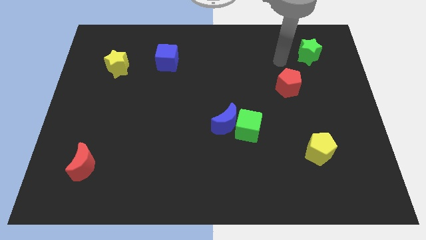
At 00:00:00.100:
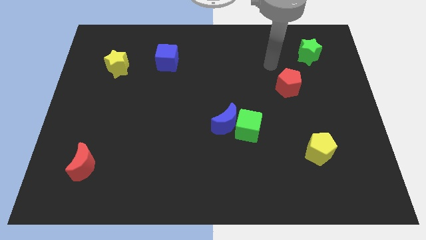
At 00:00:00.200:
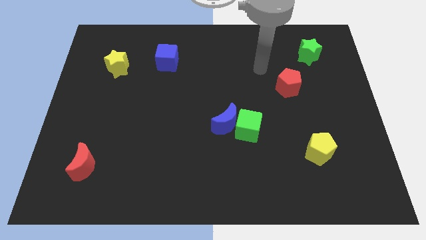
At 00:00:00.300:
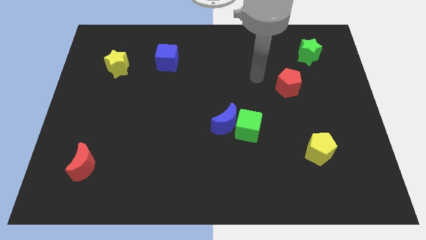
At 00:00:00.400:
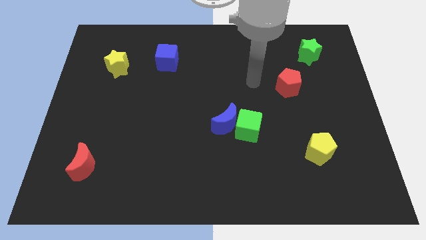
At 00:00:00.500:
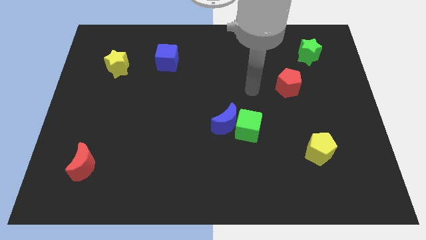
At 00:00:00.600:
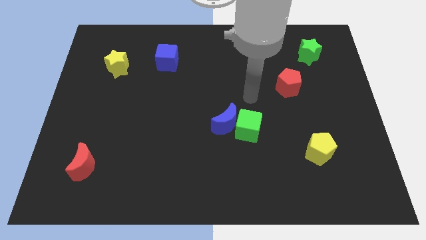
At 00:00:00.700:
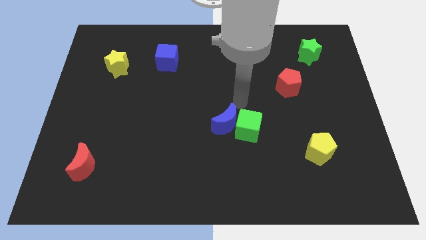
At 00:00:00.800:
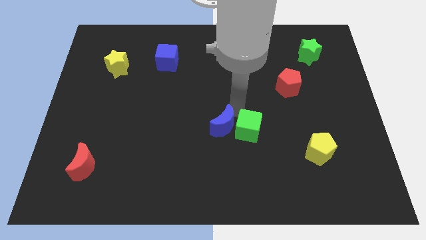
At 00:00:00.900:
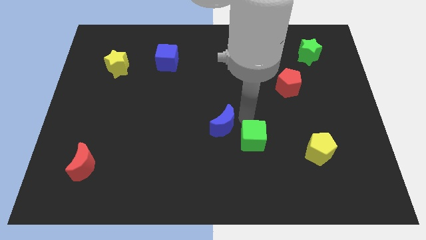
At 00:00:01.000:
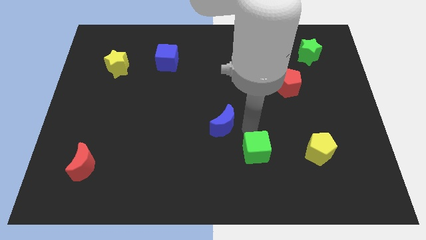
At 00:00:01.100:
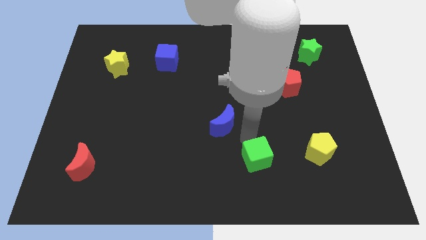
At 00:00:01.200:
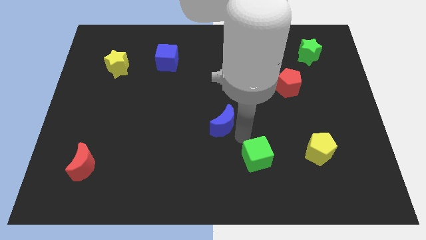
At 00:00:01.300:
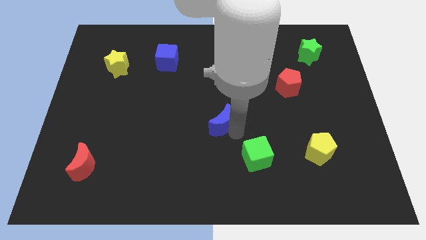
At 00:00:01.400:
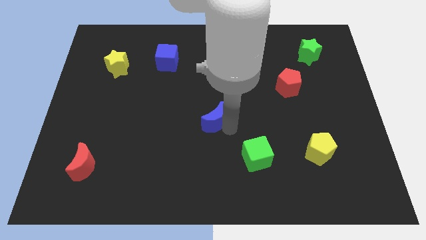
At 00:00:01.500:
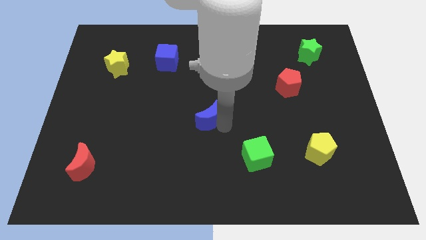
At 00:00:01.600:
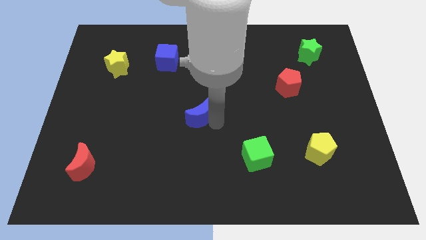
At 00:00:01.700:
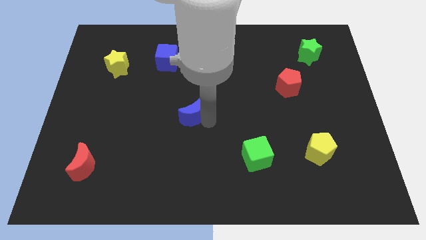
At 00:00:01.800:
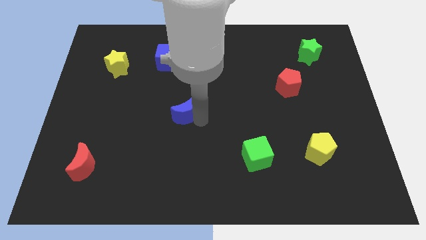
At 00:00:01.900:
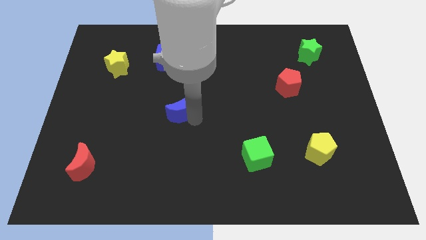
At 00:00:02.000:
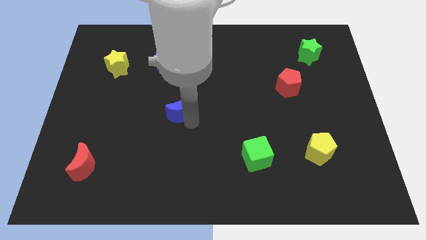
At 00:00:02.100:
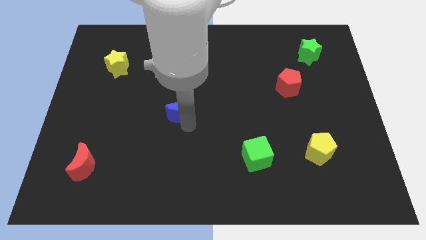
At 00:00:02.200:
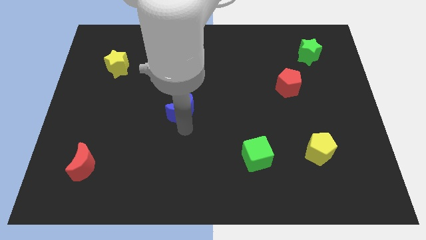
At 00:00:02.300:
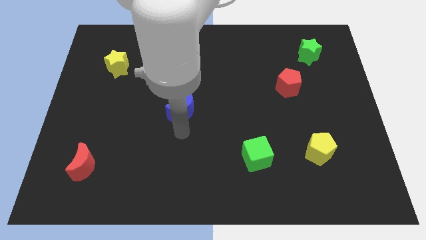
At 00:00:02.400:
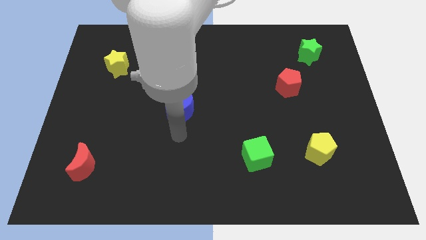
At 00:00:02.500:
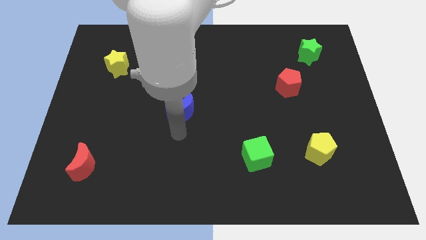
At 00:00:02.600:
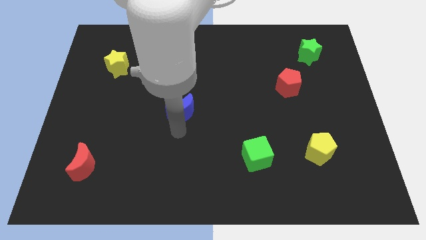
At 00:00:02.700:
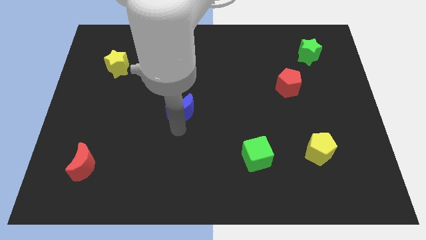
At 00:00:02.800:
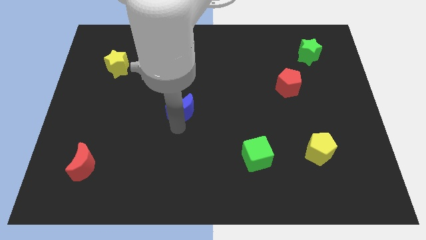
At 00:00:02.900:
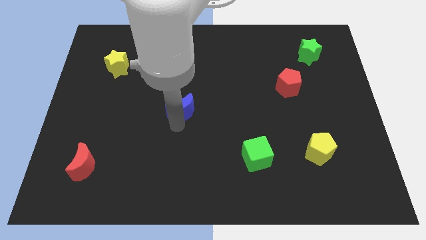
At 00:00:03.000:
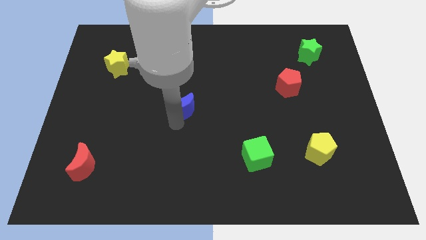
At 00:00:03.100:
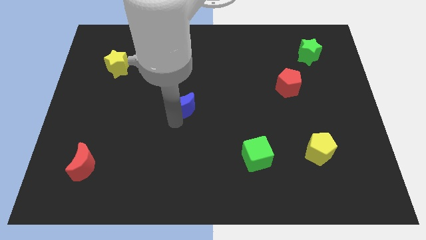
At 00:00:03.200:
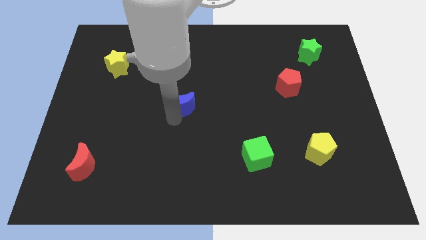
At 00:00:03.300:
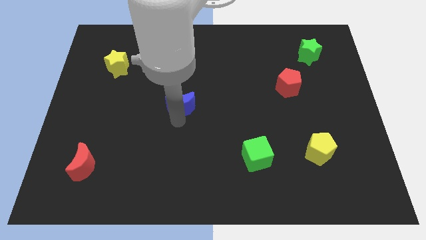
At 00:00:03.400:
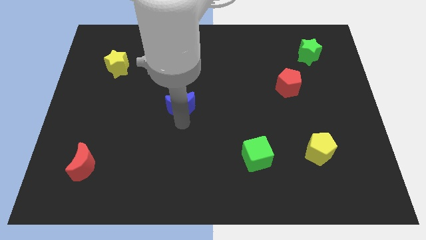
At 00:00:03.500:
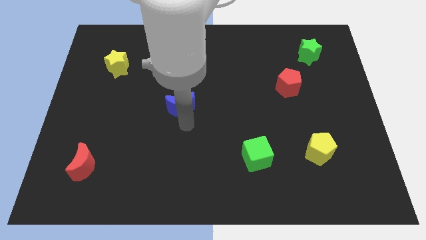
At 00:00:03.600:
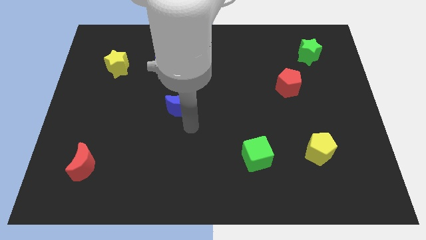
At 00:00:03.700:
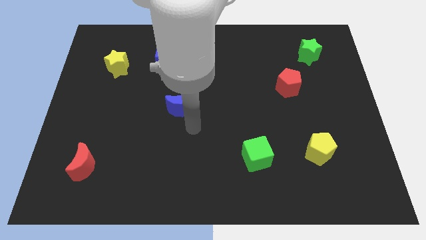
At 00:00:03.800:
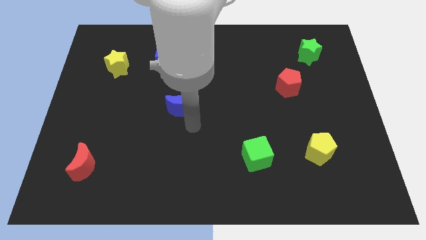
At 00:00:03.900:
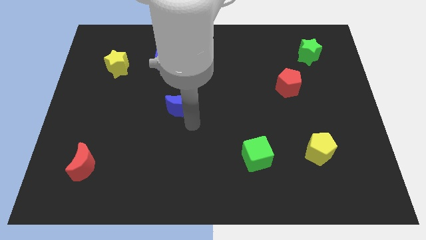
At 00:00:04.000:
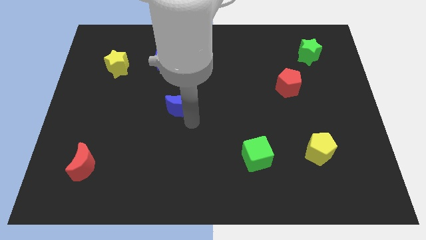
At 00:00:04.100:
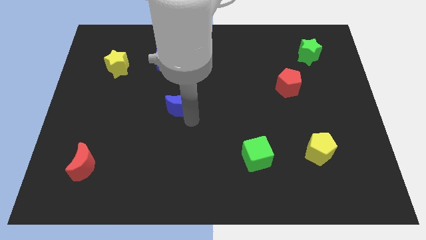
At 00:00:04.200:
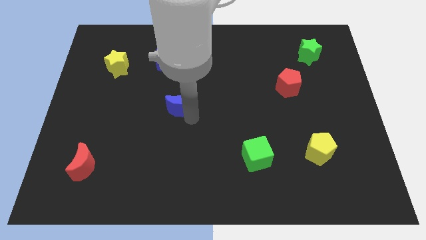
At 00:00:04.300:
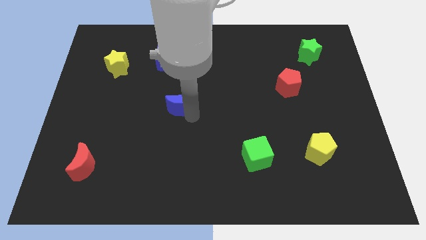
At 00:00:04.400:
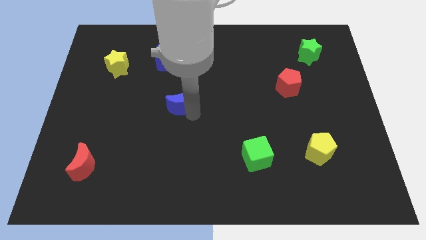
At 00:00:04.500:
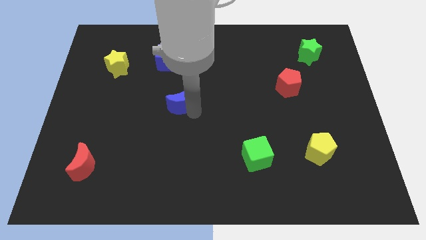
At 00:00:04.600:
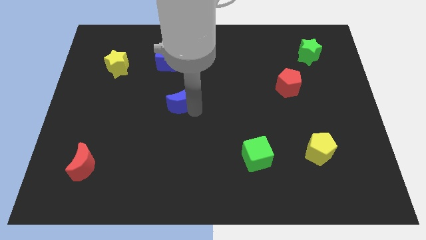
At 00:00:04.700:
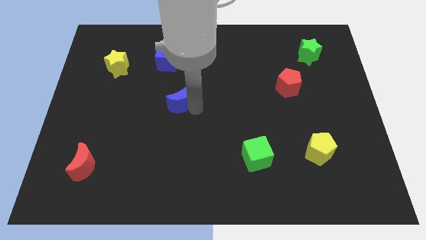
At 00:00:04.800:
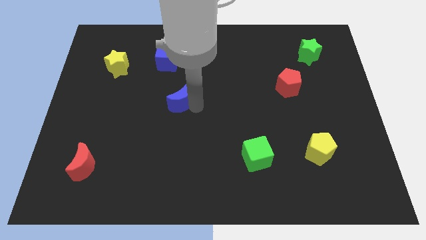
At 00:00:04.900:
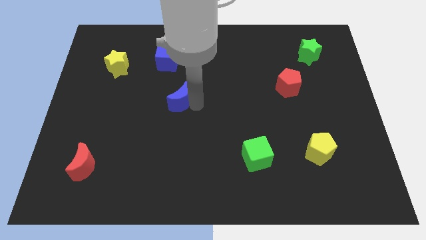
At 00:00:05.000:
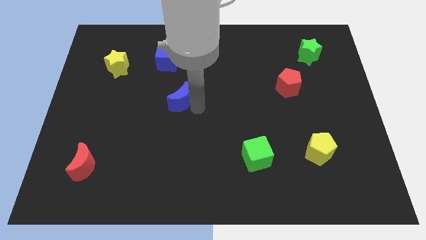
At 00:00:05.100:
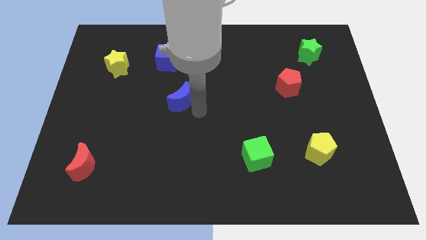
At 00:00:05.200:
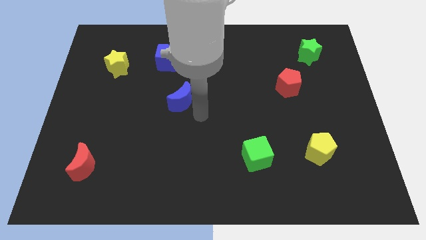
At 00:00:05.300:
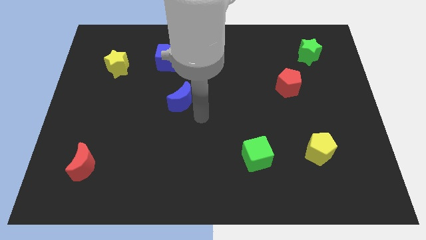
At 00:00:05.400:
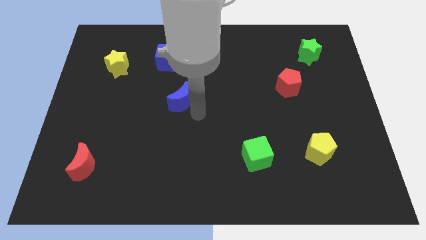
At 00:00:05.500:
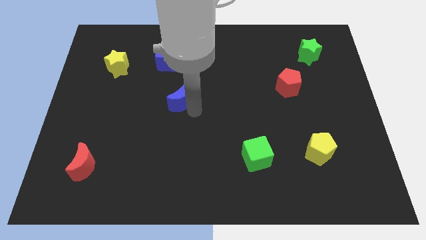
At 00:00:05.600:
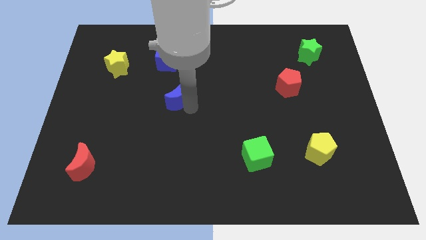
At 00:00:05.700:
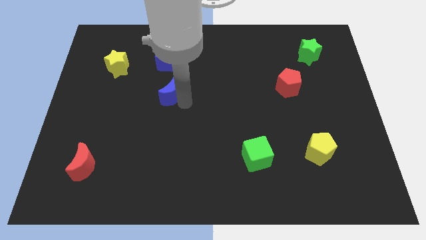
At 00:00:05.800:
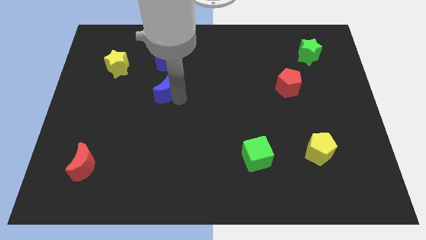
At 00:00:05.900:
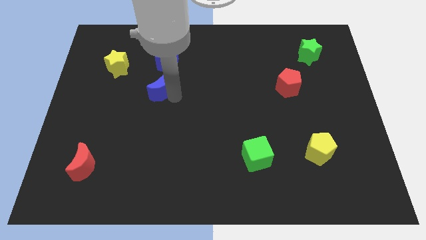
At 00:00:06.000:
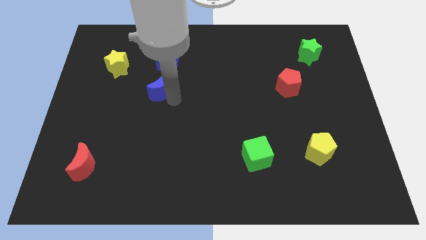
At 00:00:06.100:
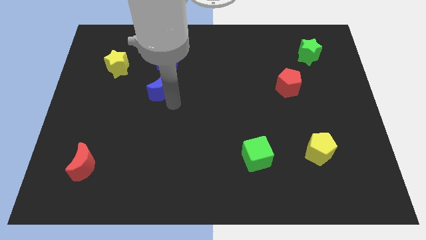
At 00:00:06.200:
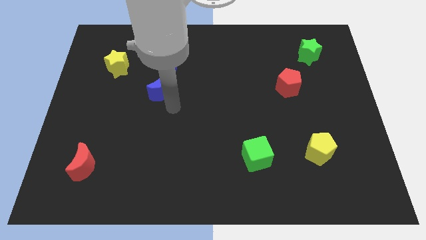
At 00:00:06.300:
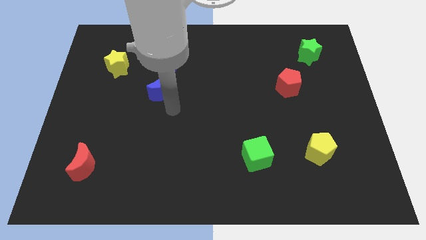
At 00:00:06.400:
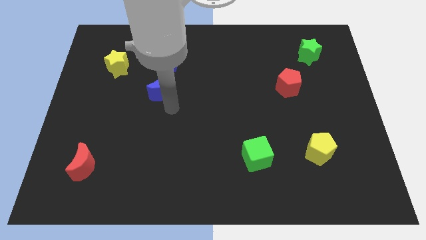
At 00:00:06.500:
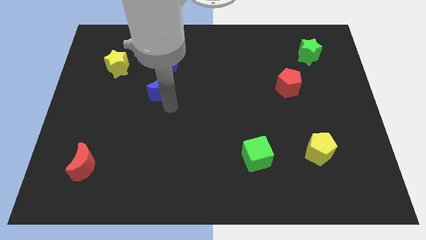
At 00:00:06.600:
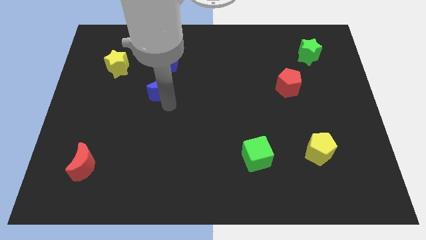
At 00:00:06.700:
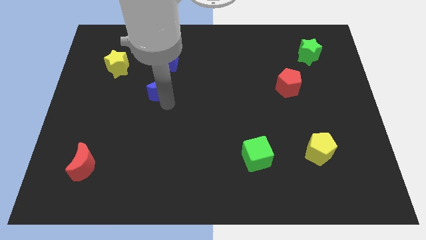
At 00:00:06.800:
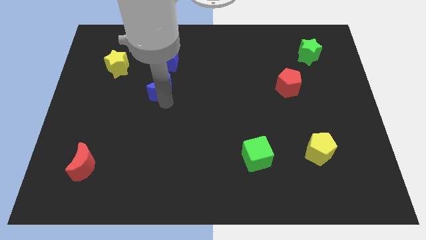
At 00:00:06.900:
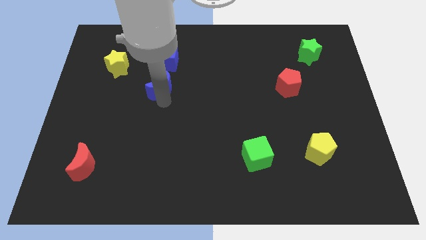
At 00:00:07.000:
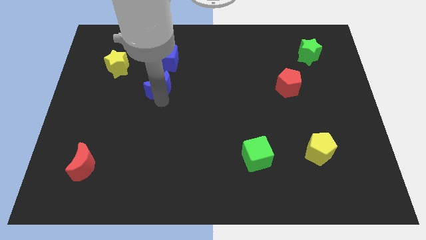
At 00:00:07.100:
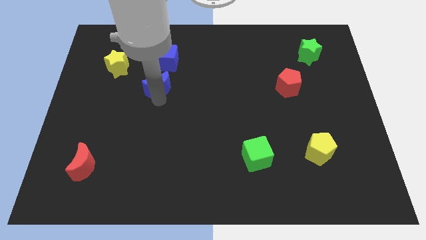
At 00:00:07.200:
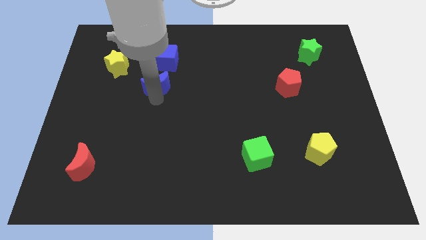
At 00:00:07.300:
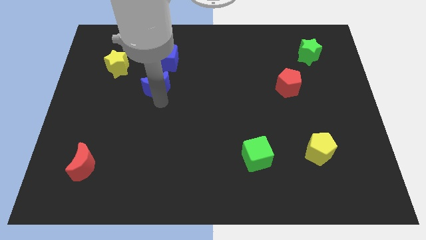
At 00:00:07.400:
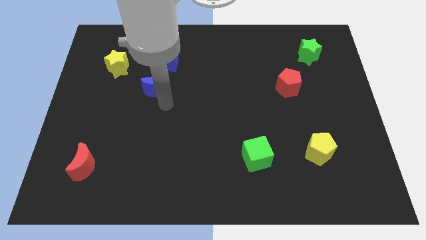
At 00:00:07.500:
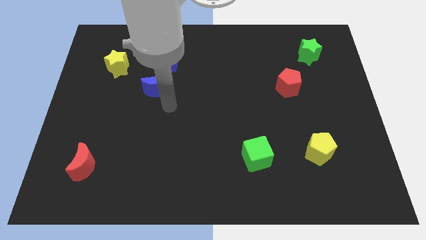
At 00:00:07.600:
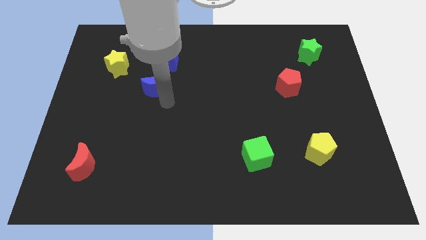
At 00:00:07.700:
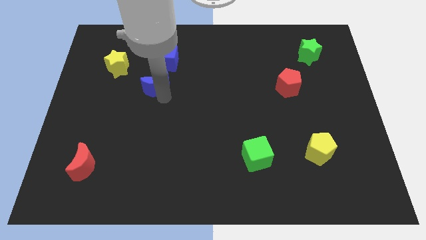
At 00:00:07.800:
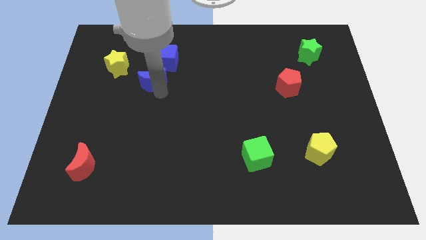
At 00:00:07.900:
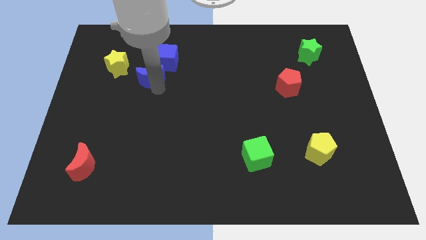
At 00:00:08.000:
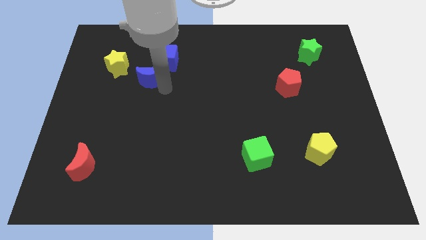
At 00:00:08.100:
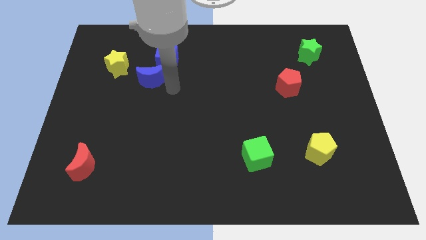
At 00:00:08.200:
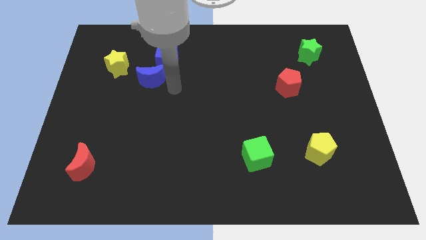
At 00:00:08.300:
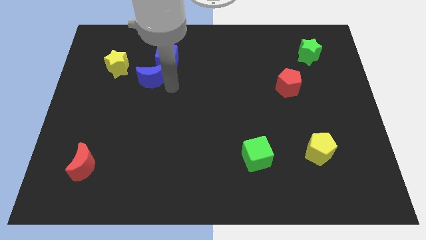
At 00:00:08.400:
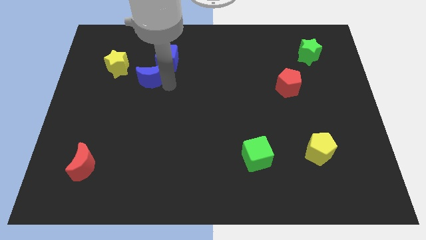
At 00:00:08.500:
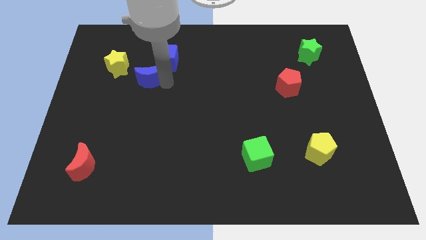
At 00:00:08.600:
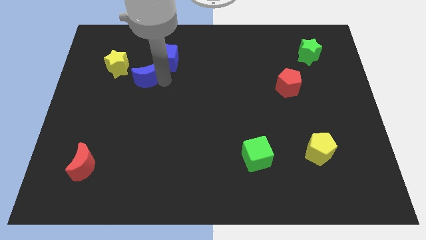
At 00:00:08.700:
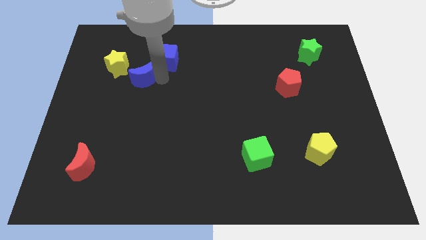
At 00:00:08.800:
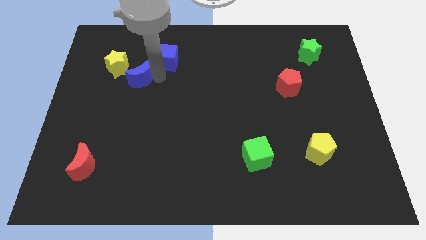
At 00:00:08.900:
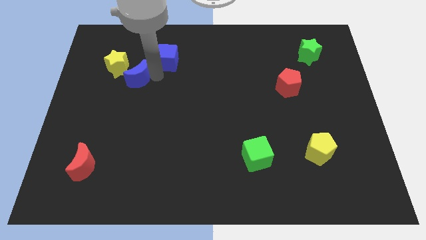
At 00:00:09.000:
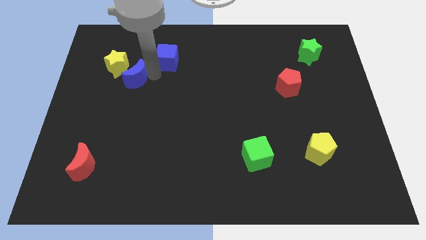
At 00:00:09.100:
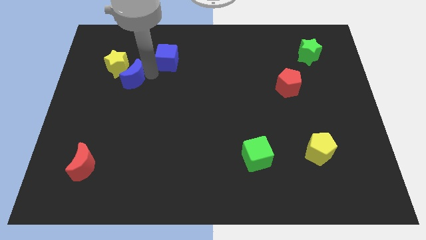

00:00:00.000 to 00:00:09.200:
slide the blue moon towards the yellow star
